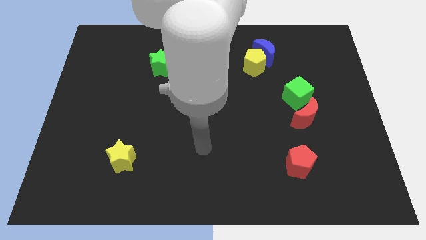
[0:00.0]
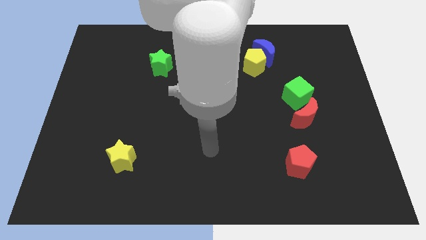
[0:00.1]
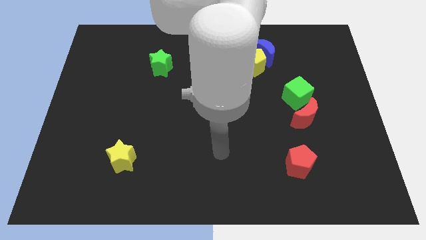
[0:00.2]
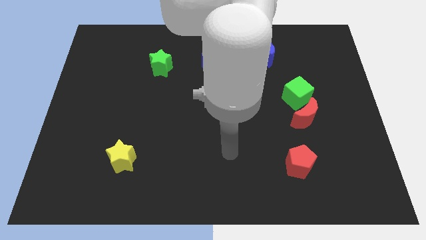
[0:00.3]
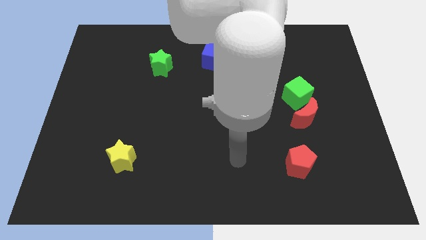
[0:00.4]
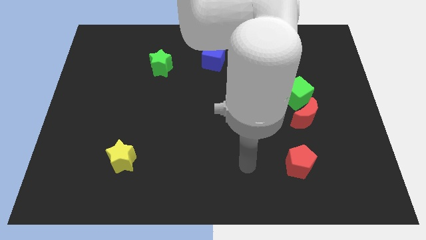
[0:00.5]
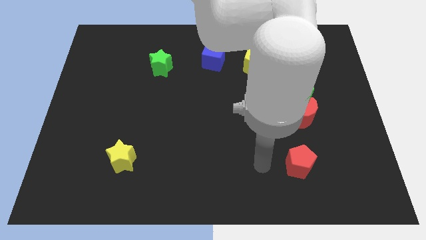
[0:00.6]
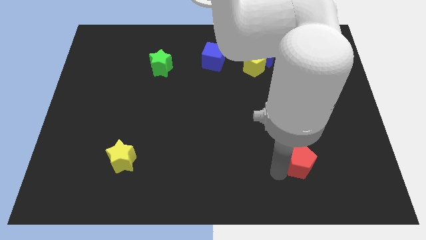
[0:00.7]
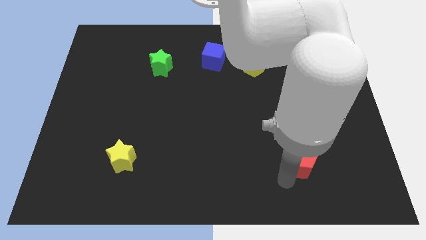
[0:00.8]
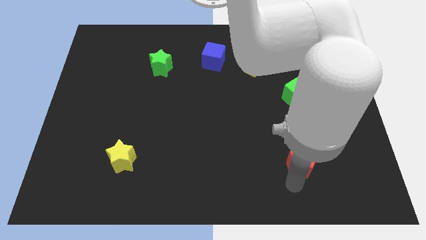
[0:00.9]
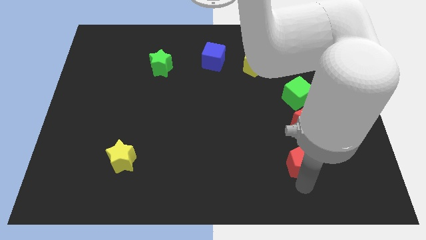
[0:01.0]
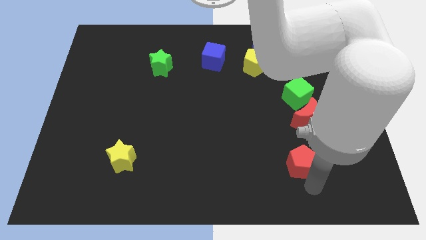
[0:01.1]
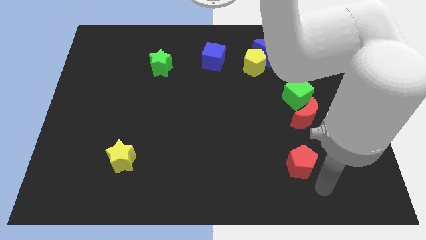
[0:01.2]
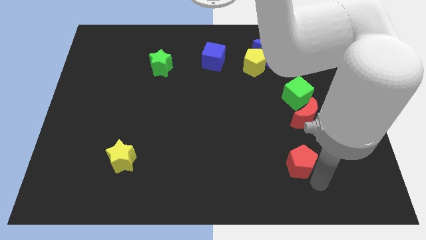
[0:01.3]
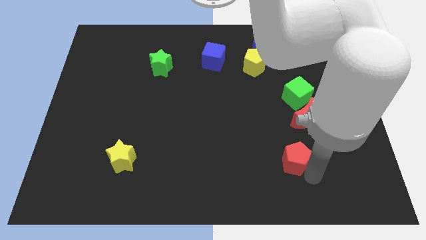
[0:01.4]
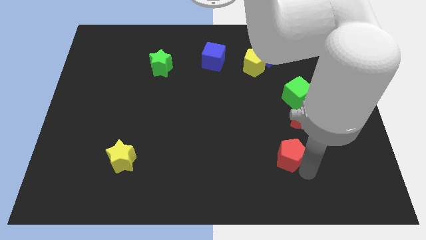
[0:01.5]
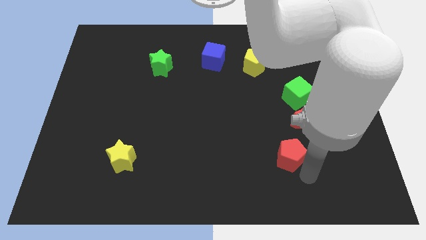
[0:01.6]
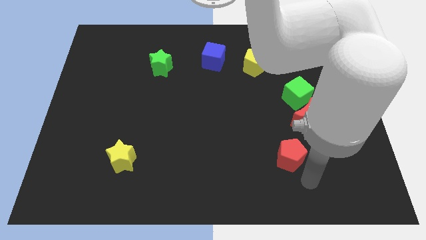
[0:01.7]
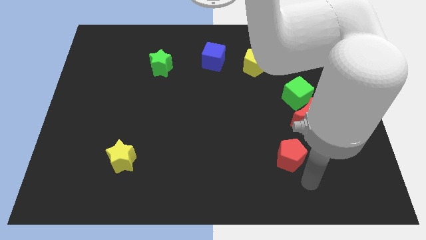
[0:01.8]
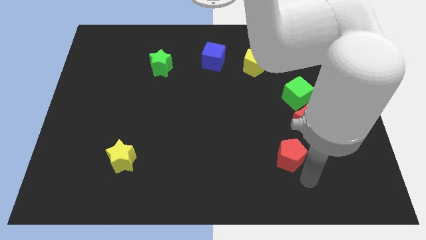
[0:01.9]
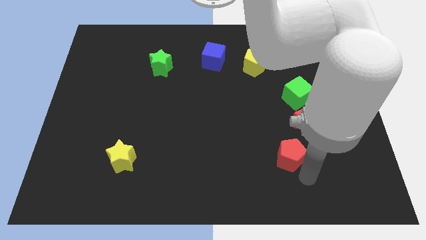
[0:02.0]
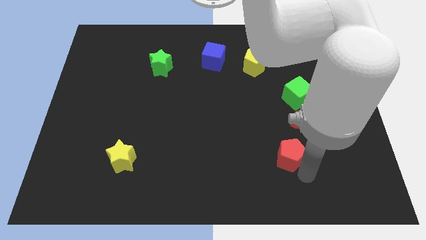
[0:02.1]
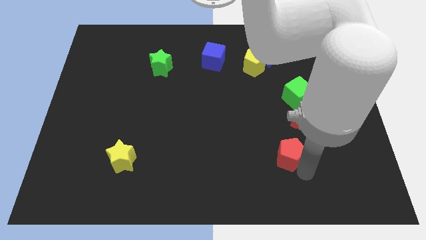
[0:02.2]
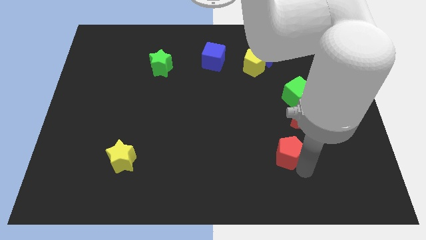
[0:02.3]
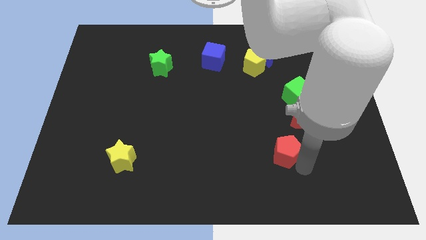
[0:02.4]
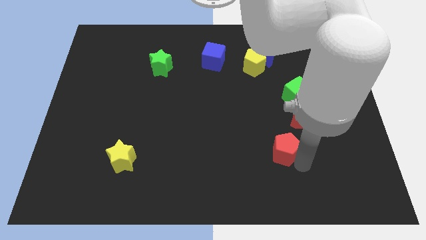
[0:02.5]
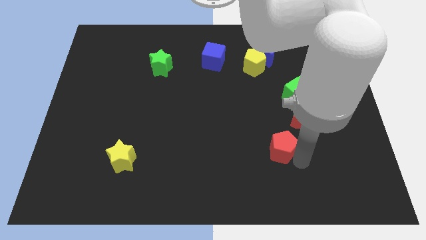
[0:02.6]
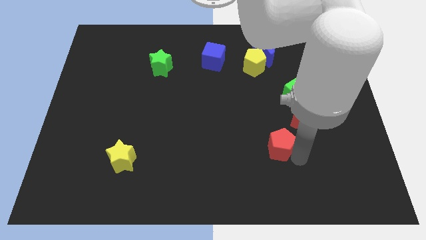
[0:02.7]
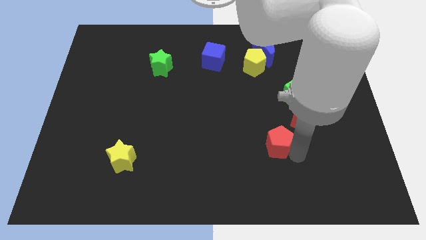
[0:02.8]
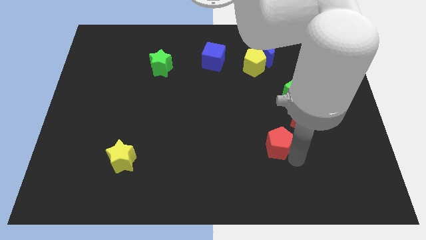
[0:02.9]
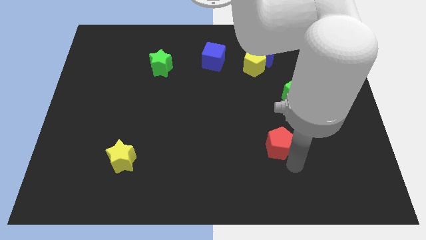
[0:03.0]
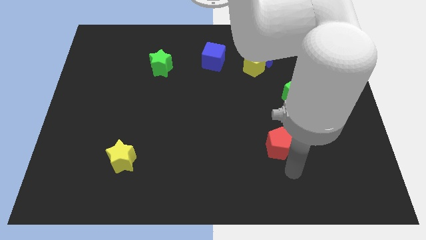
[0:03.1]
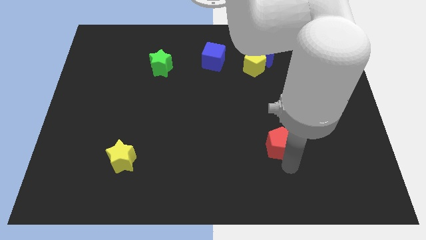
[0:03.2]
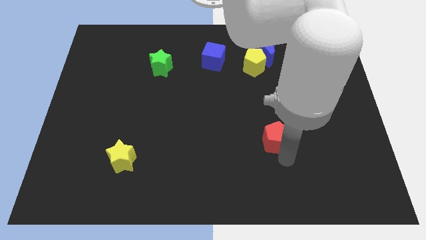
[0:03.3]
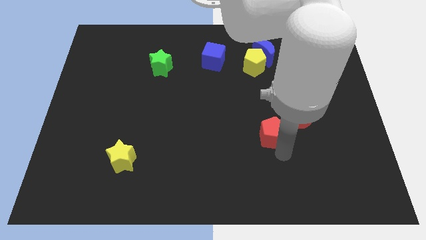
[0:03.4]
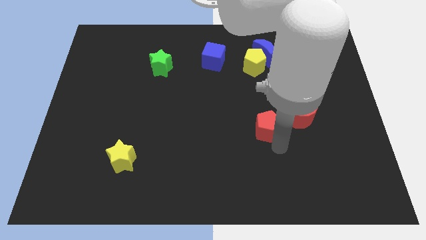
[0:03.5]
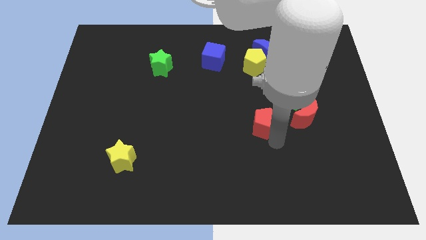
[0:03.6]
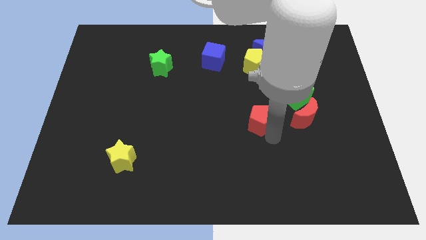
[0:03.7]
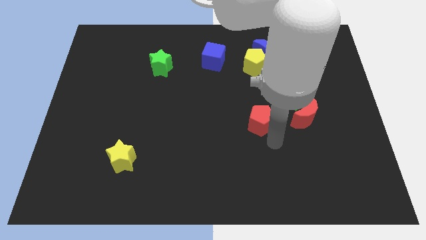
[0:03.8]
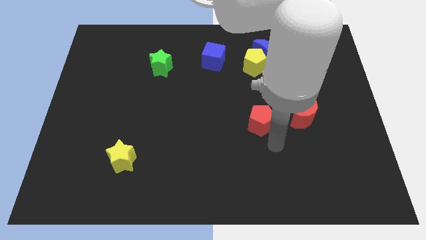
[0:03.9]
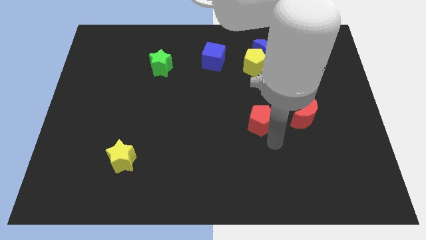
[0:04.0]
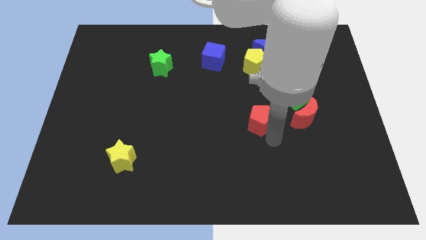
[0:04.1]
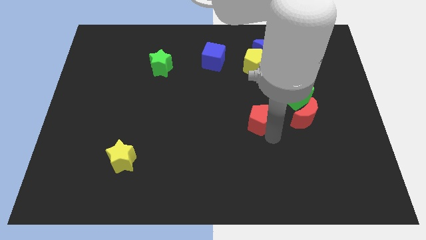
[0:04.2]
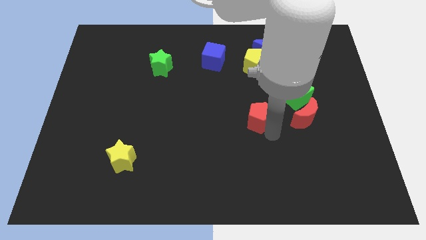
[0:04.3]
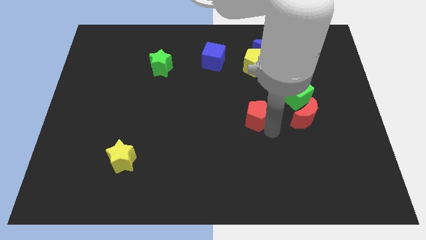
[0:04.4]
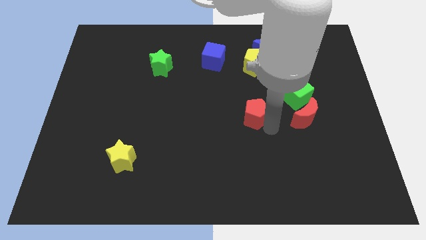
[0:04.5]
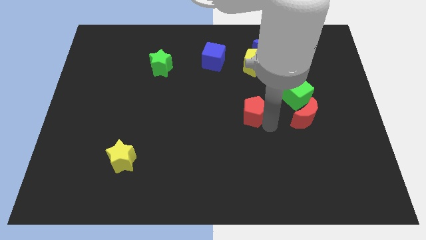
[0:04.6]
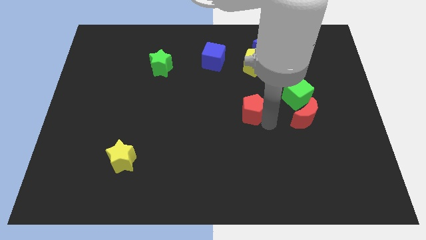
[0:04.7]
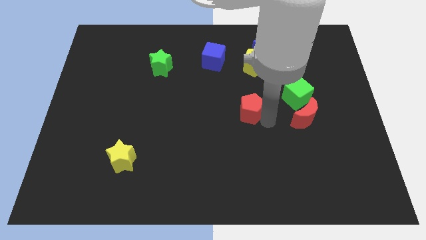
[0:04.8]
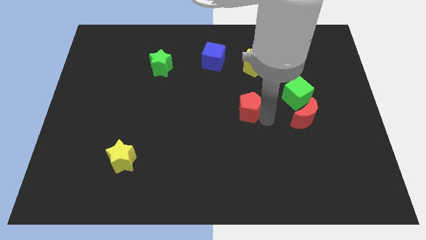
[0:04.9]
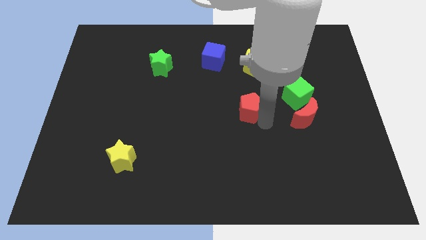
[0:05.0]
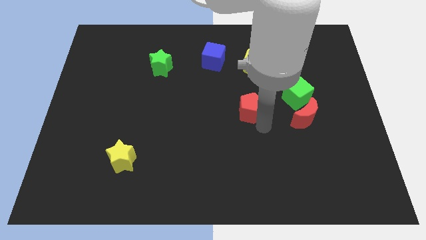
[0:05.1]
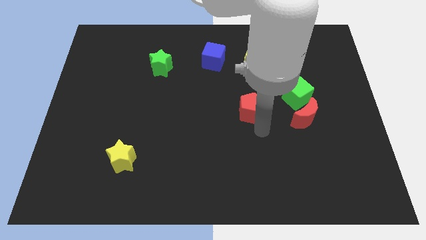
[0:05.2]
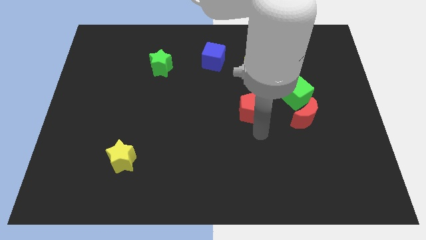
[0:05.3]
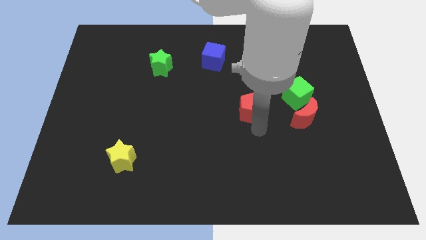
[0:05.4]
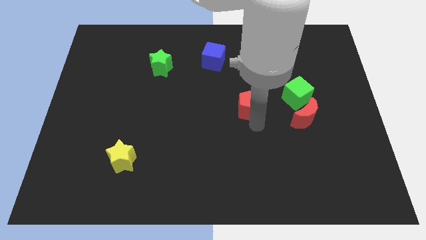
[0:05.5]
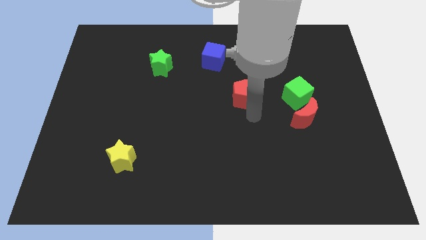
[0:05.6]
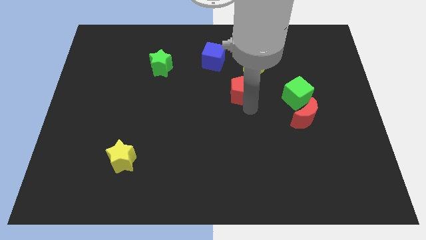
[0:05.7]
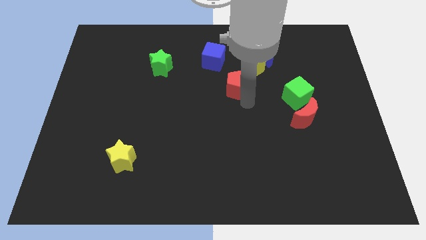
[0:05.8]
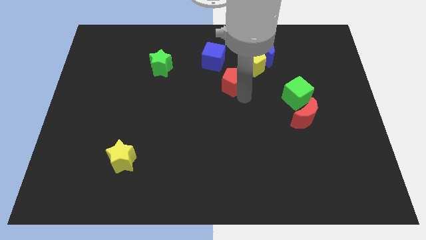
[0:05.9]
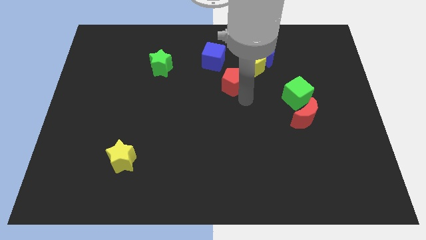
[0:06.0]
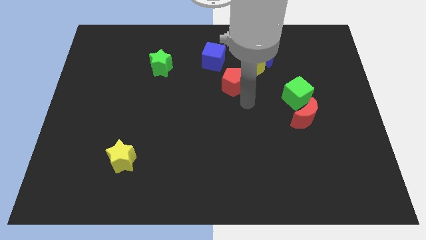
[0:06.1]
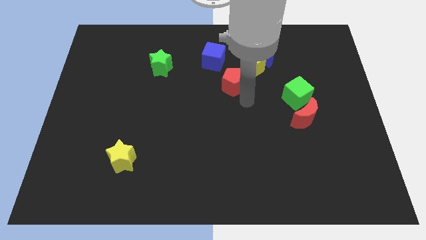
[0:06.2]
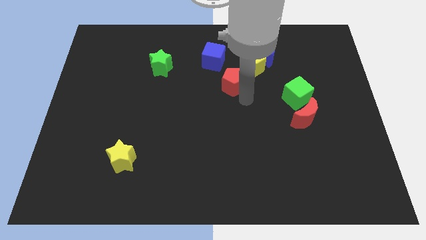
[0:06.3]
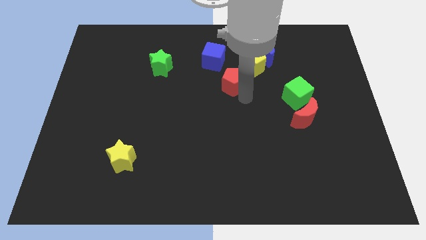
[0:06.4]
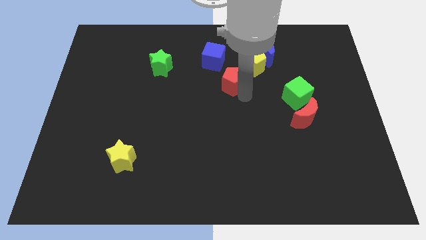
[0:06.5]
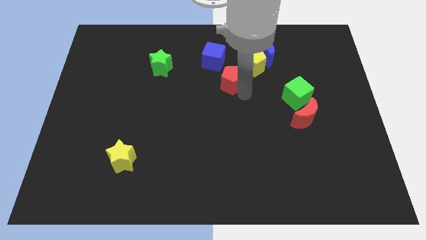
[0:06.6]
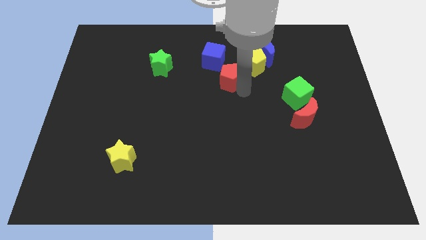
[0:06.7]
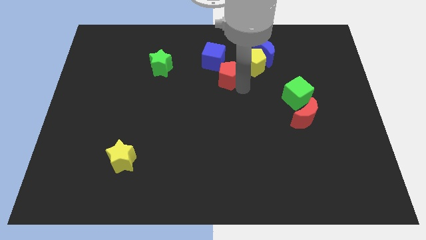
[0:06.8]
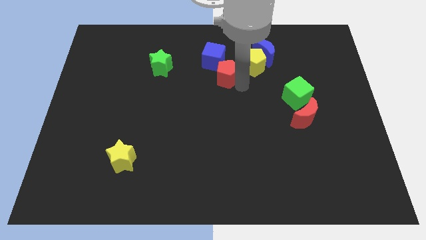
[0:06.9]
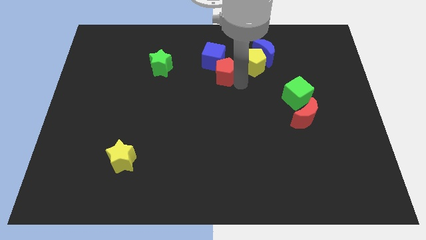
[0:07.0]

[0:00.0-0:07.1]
push the red pentagon next to the blue cube

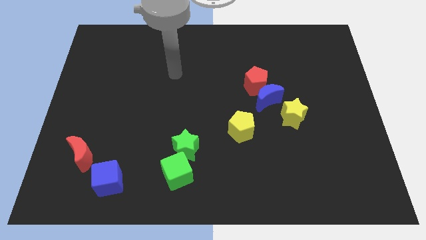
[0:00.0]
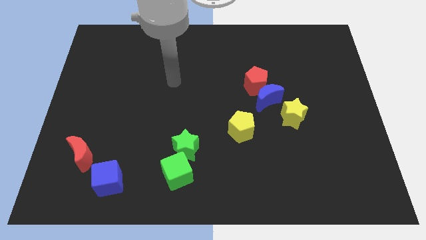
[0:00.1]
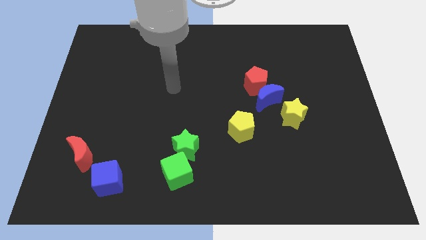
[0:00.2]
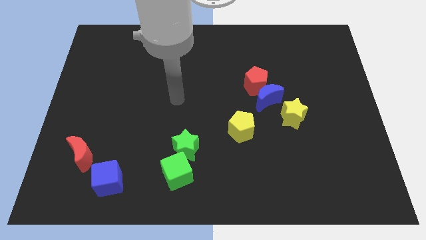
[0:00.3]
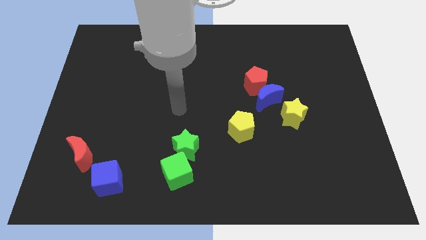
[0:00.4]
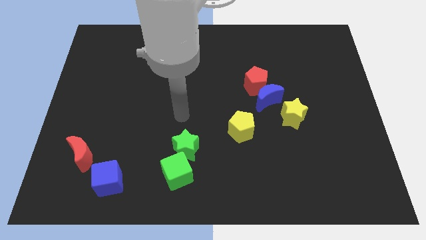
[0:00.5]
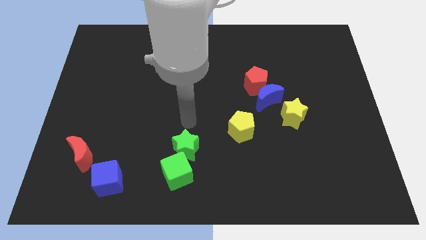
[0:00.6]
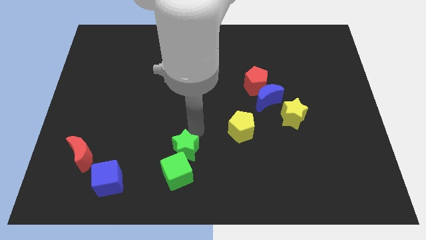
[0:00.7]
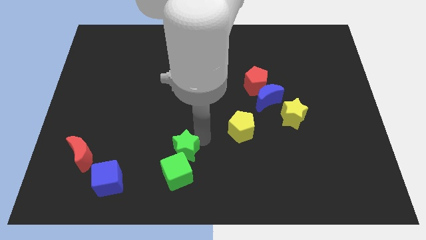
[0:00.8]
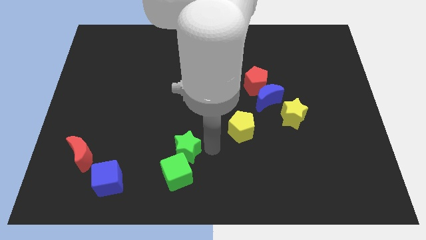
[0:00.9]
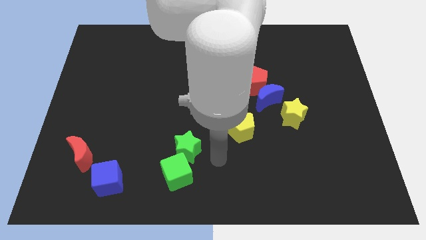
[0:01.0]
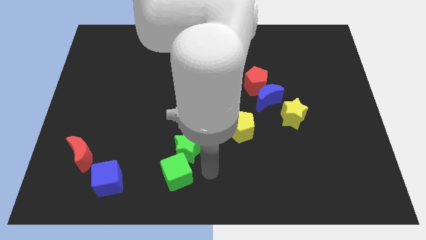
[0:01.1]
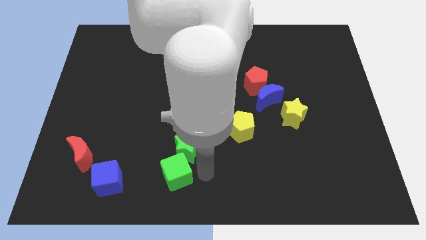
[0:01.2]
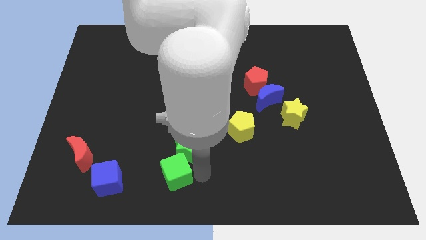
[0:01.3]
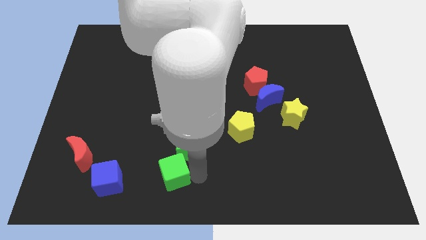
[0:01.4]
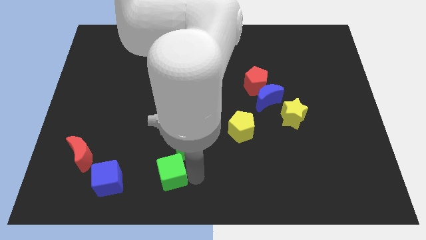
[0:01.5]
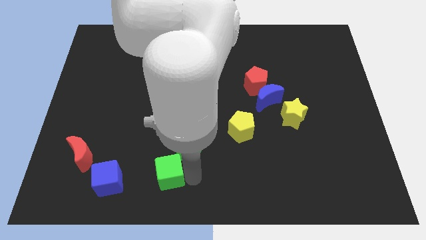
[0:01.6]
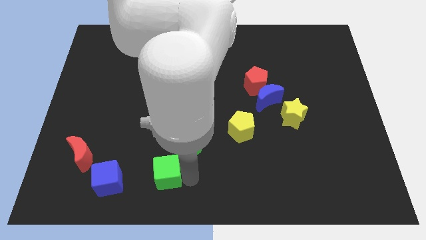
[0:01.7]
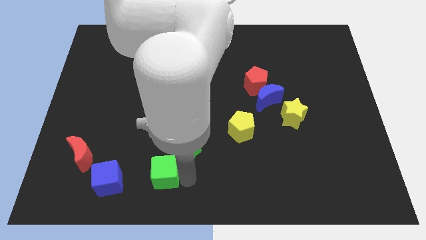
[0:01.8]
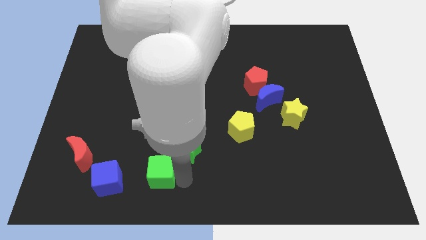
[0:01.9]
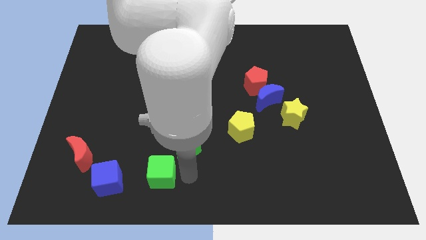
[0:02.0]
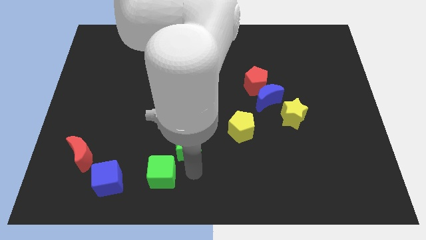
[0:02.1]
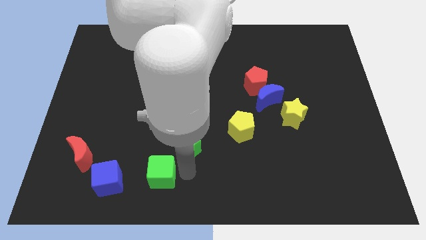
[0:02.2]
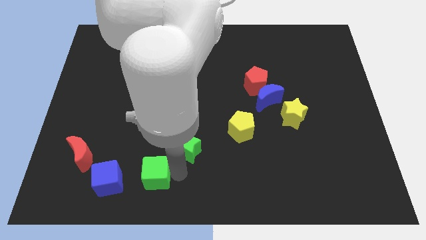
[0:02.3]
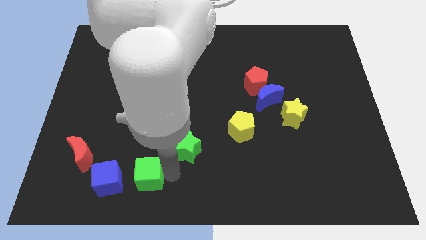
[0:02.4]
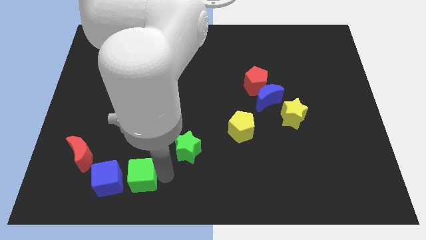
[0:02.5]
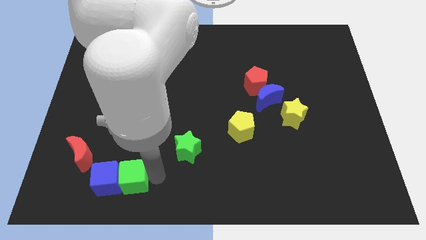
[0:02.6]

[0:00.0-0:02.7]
push the green cube towards the blue cube
